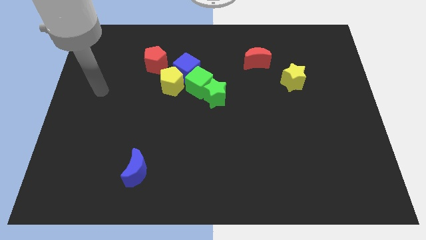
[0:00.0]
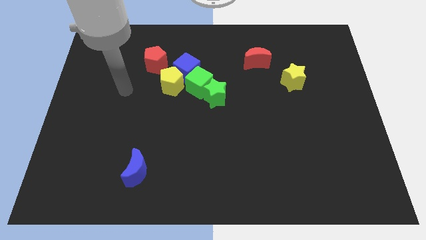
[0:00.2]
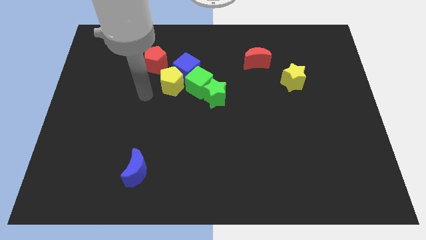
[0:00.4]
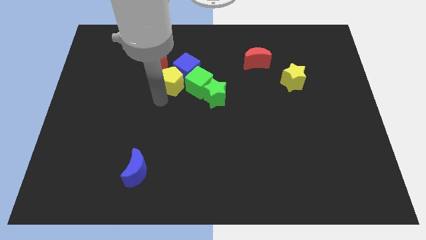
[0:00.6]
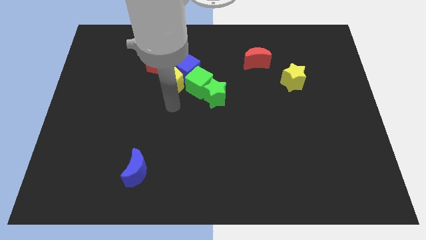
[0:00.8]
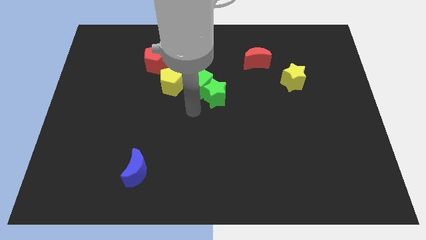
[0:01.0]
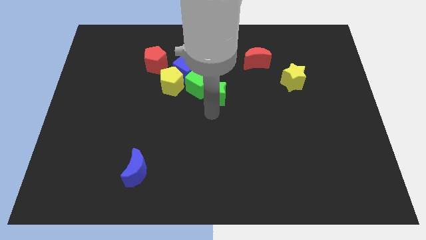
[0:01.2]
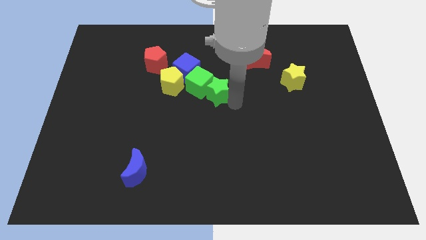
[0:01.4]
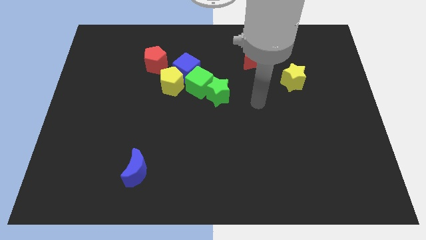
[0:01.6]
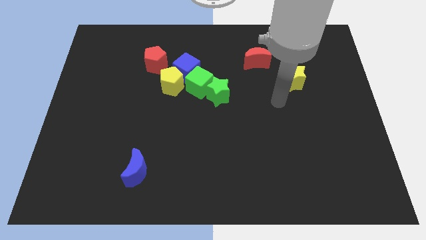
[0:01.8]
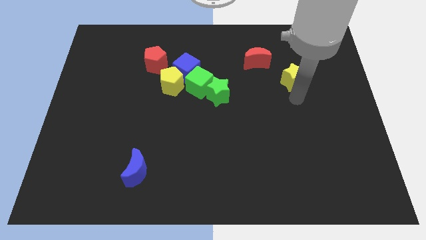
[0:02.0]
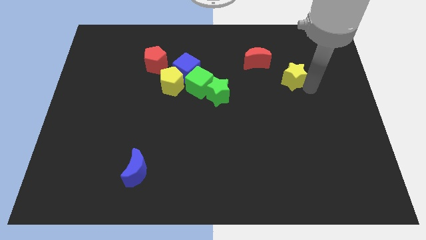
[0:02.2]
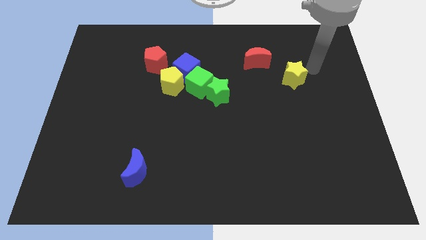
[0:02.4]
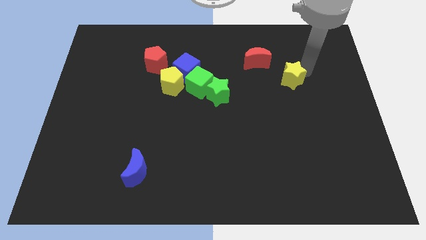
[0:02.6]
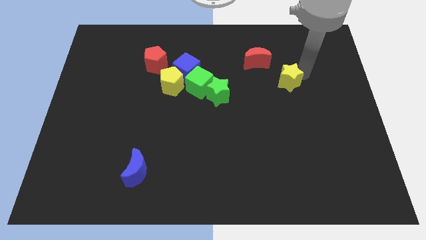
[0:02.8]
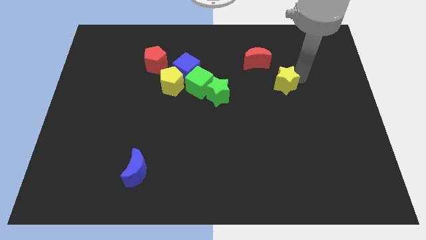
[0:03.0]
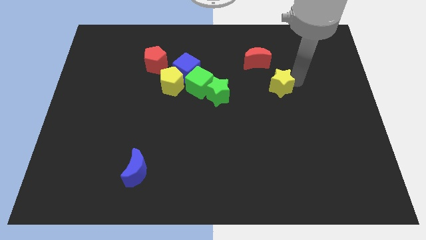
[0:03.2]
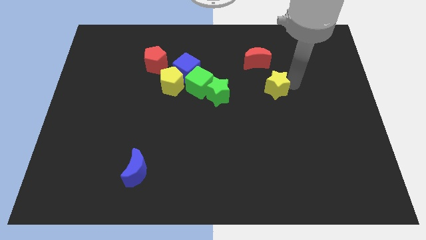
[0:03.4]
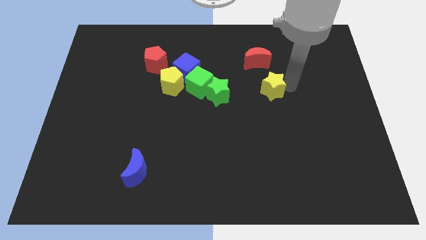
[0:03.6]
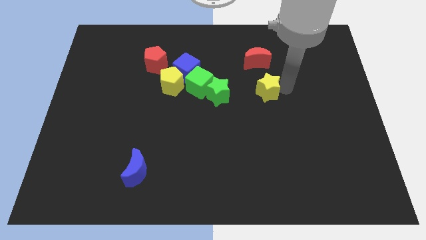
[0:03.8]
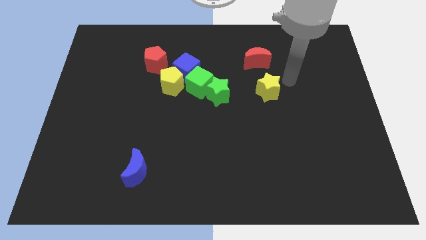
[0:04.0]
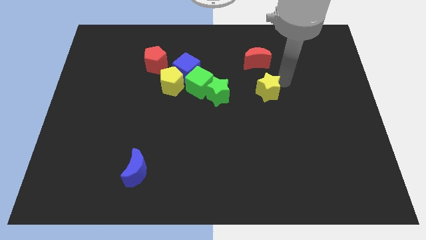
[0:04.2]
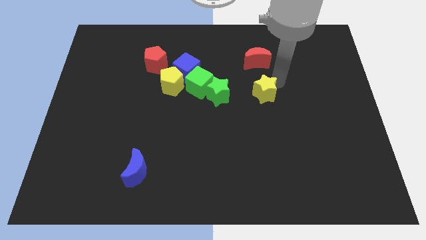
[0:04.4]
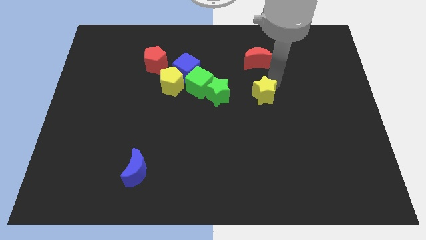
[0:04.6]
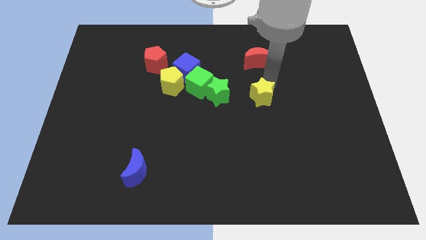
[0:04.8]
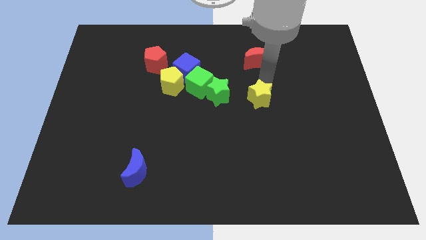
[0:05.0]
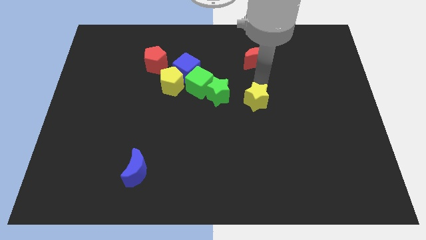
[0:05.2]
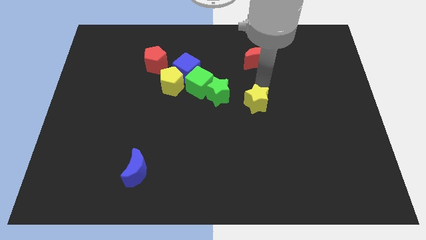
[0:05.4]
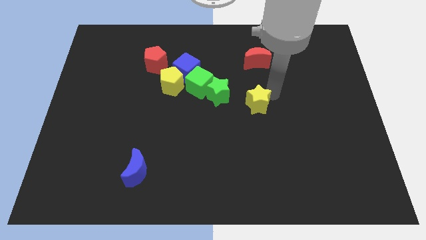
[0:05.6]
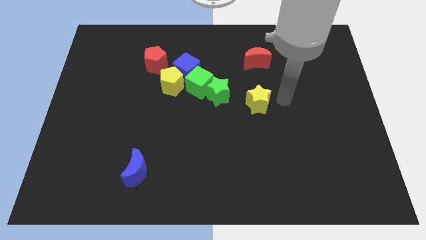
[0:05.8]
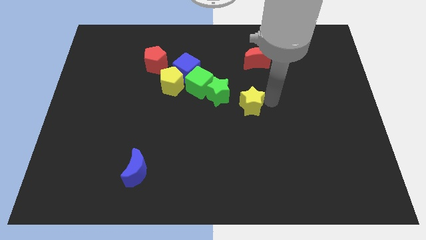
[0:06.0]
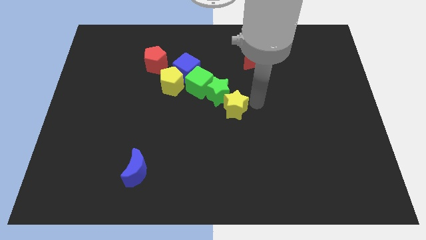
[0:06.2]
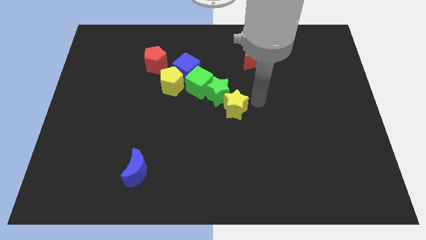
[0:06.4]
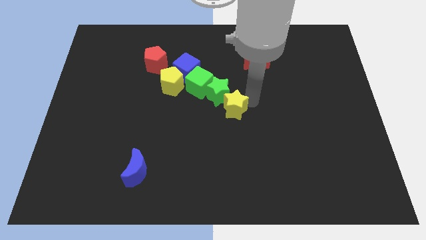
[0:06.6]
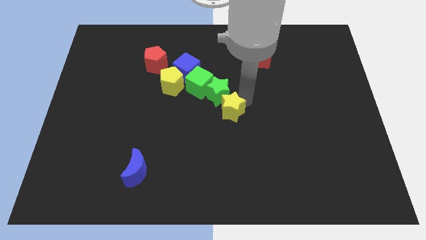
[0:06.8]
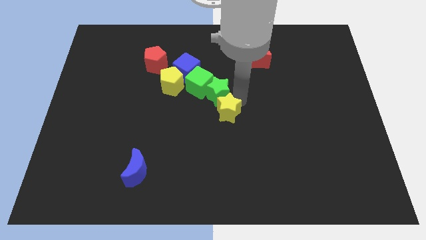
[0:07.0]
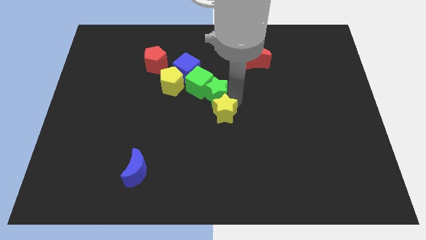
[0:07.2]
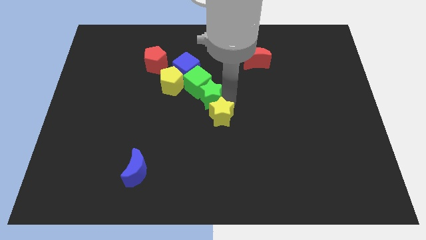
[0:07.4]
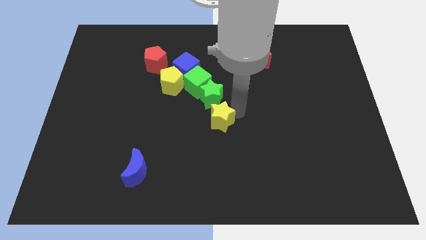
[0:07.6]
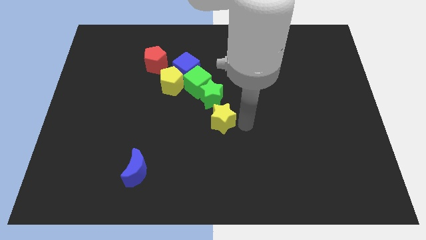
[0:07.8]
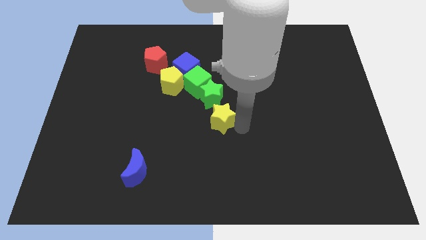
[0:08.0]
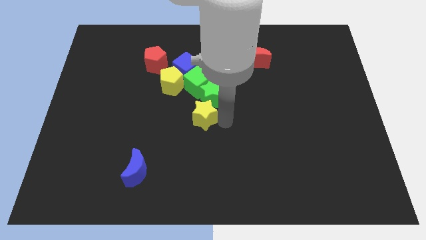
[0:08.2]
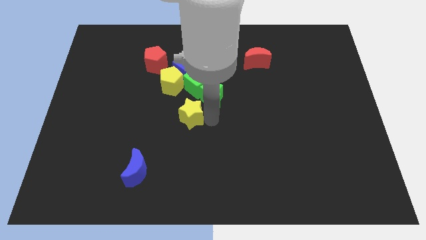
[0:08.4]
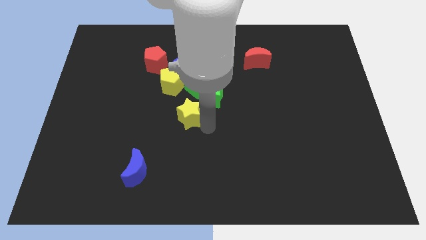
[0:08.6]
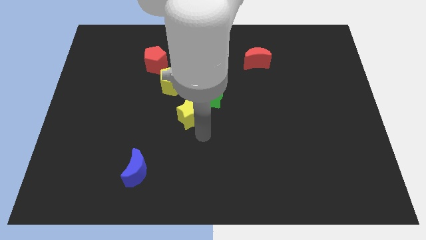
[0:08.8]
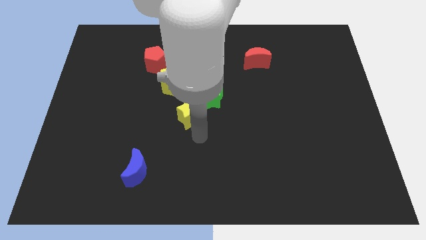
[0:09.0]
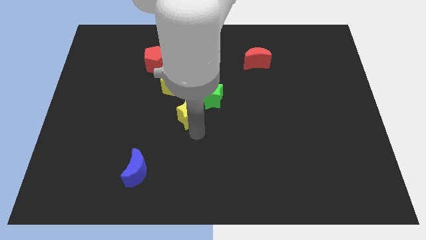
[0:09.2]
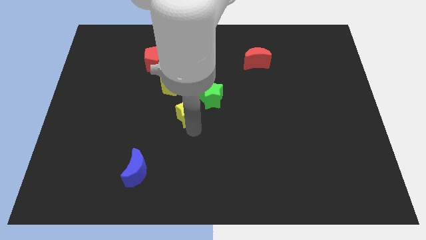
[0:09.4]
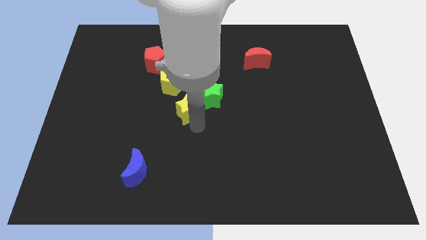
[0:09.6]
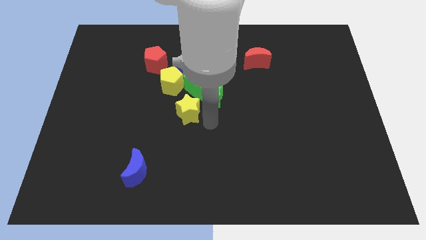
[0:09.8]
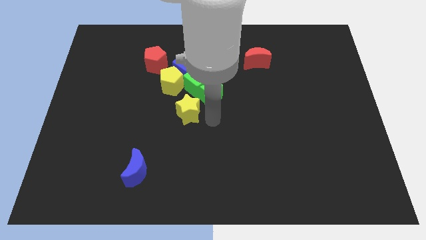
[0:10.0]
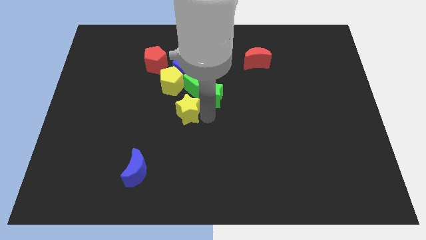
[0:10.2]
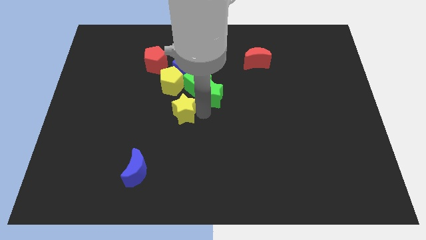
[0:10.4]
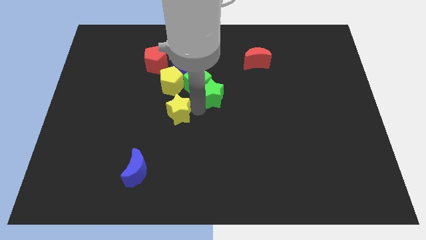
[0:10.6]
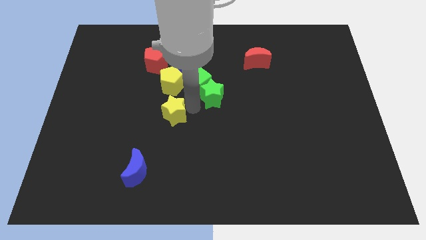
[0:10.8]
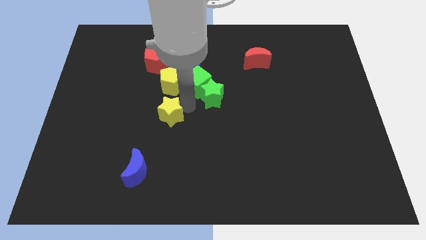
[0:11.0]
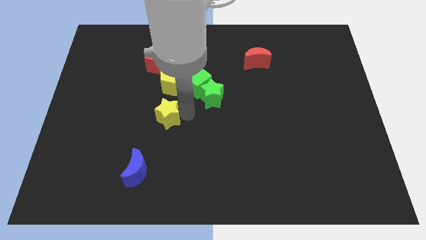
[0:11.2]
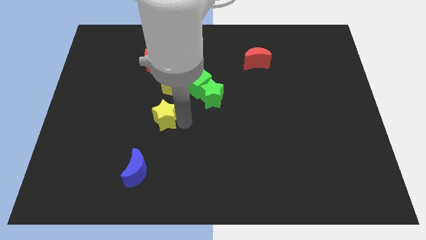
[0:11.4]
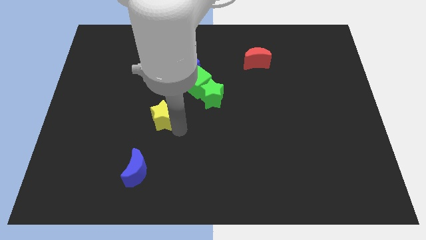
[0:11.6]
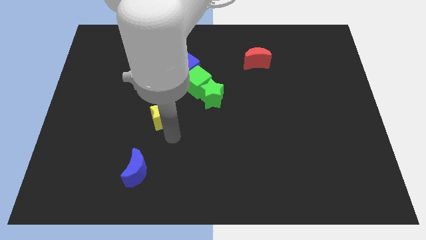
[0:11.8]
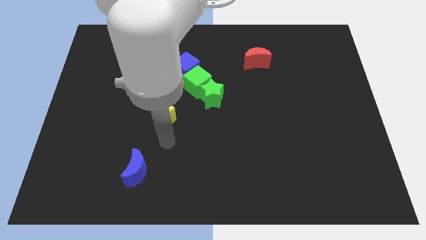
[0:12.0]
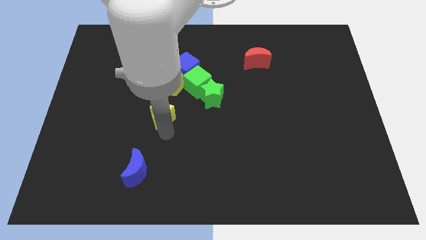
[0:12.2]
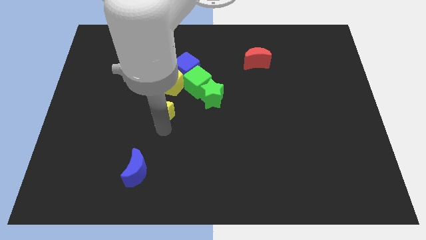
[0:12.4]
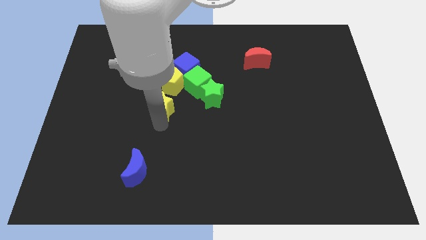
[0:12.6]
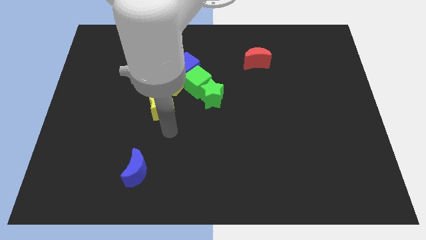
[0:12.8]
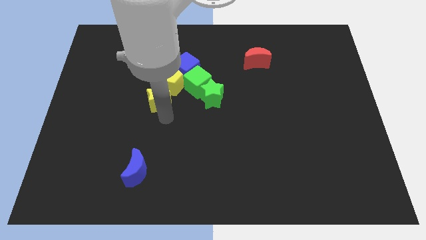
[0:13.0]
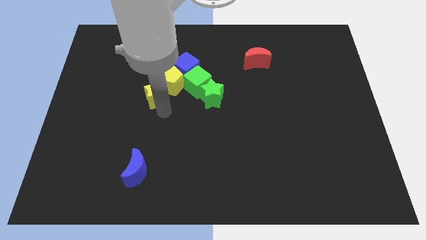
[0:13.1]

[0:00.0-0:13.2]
move the yellow star just left of the green cube

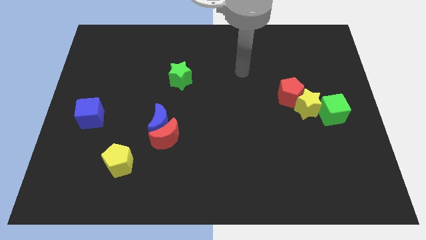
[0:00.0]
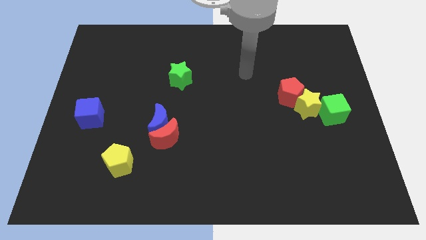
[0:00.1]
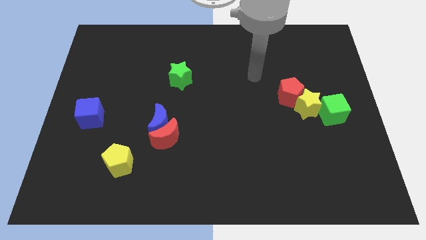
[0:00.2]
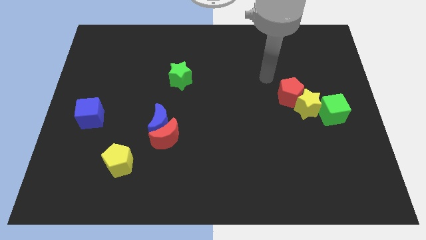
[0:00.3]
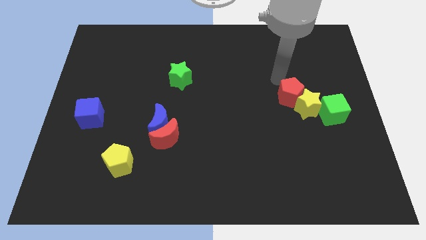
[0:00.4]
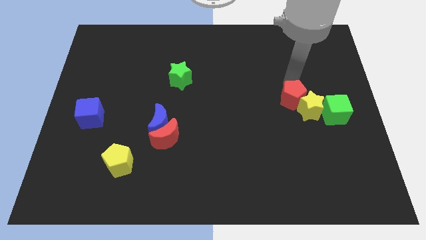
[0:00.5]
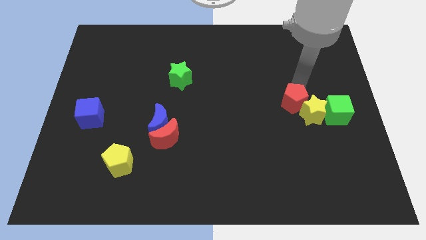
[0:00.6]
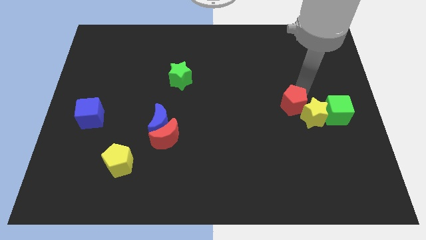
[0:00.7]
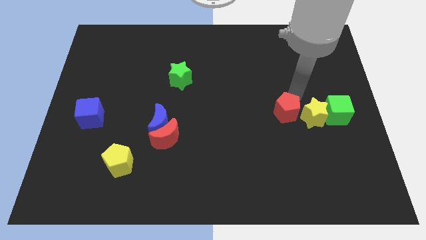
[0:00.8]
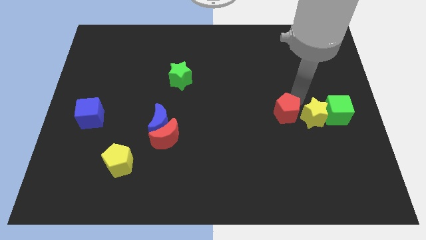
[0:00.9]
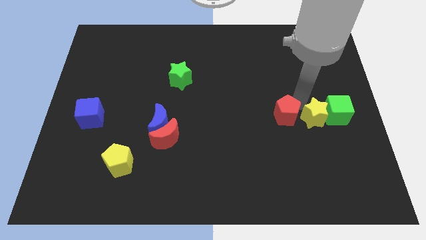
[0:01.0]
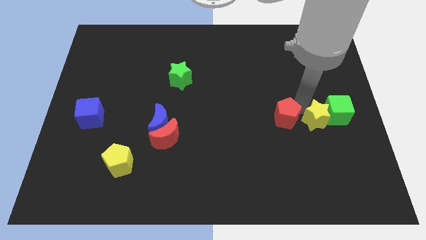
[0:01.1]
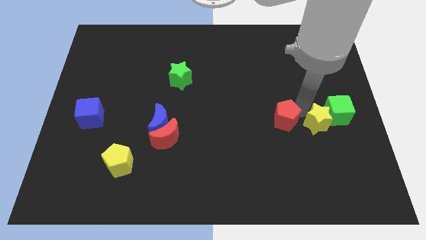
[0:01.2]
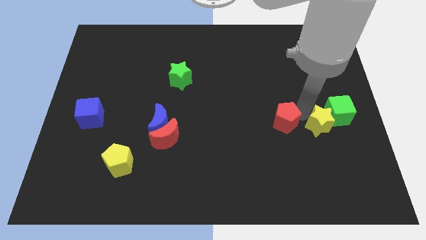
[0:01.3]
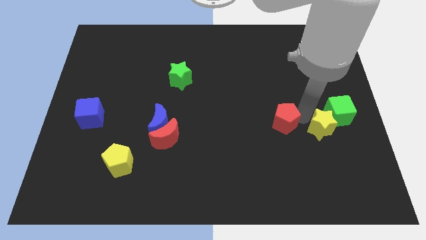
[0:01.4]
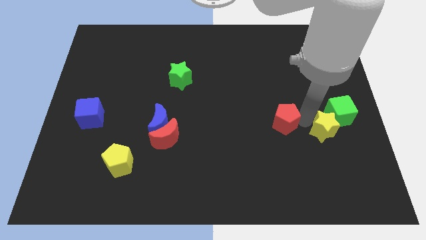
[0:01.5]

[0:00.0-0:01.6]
put the yellow star to the bottom of the green cube
